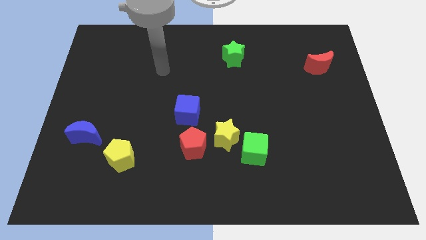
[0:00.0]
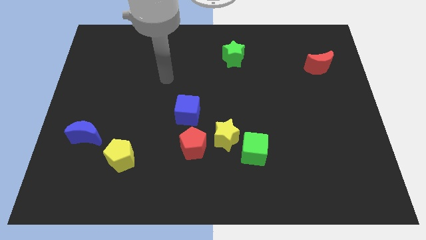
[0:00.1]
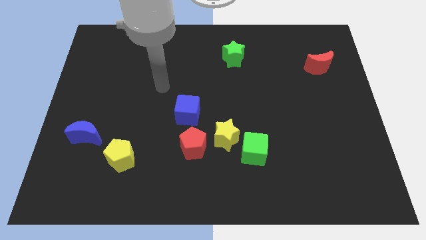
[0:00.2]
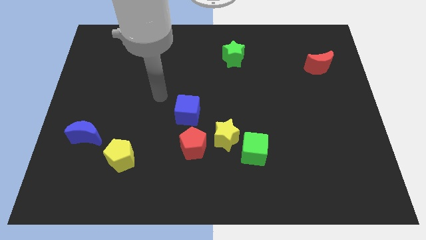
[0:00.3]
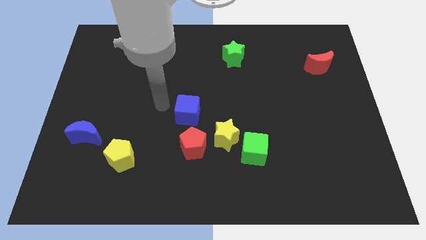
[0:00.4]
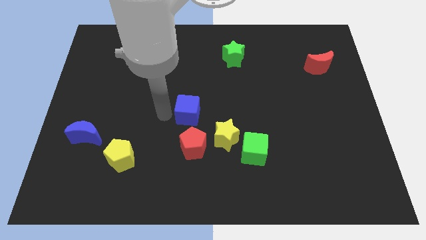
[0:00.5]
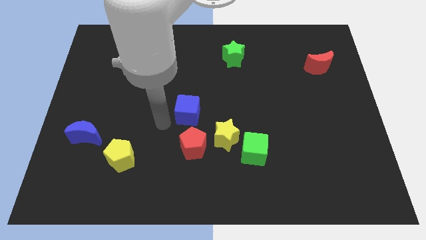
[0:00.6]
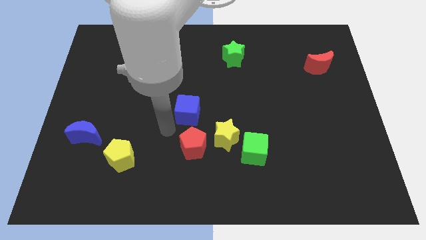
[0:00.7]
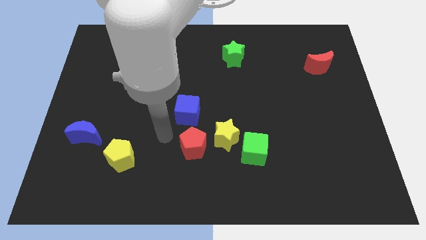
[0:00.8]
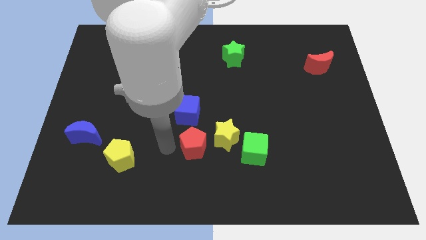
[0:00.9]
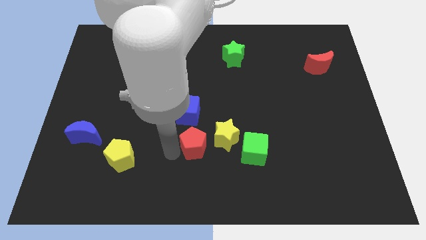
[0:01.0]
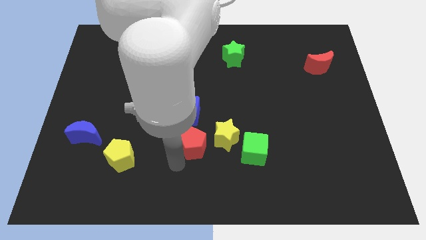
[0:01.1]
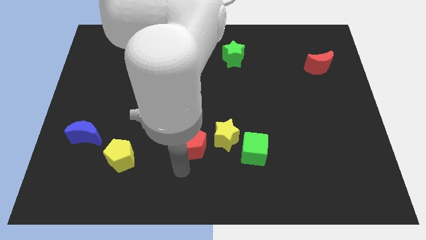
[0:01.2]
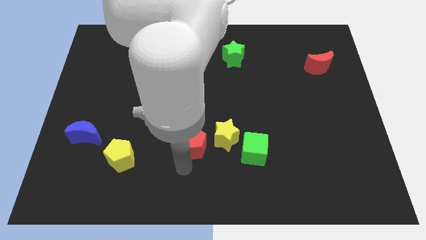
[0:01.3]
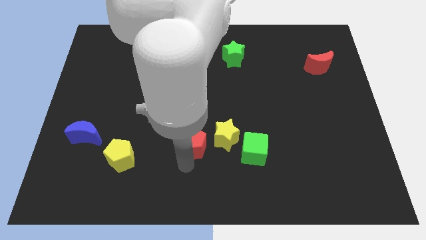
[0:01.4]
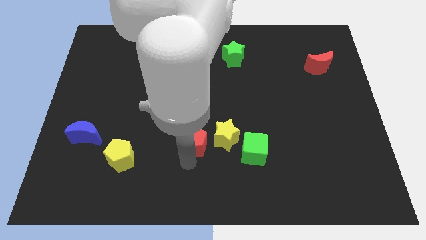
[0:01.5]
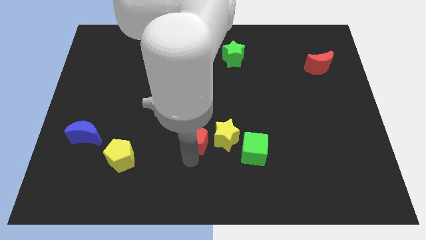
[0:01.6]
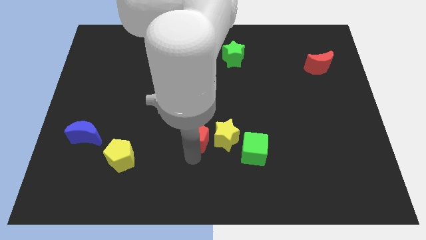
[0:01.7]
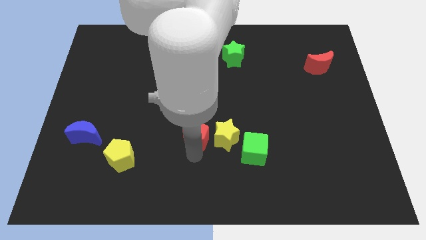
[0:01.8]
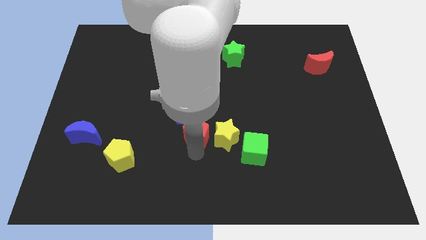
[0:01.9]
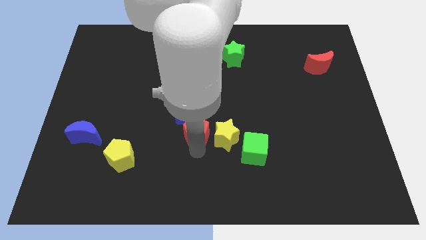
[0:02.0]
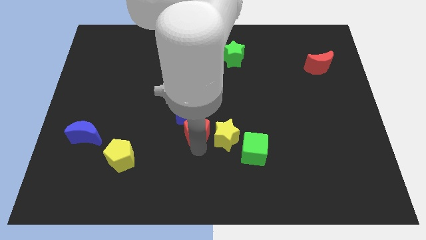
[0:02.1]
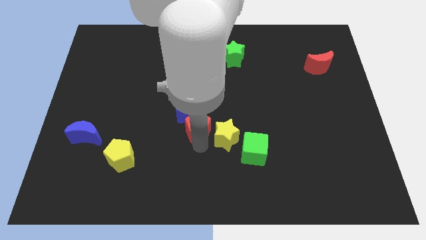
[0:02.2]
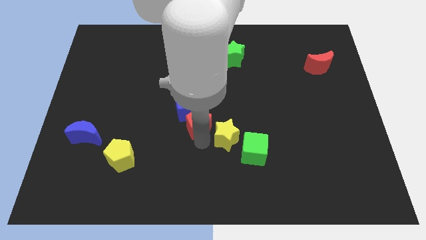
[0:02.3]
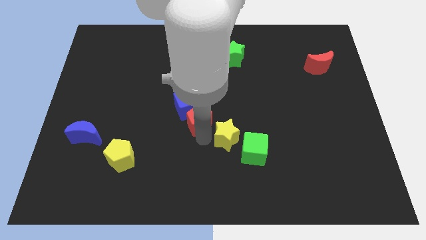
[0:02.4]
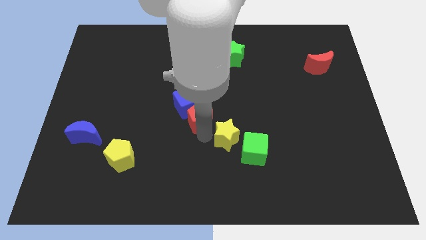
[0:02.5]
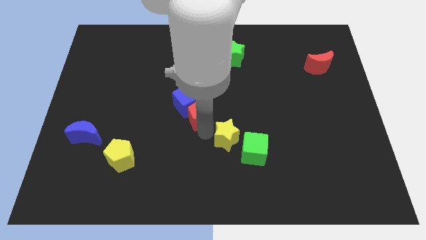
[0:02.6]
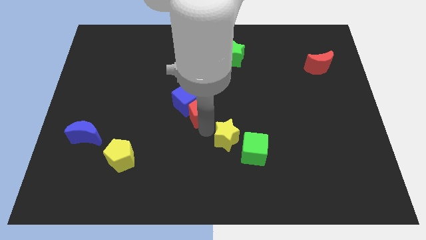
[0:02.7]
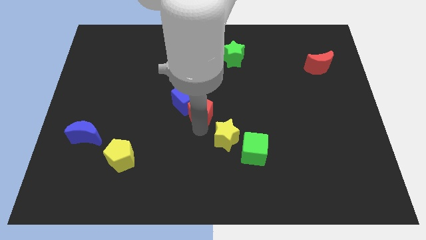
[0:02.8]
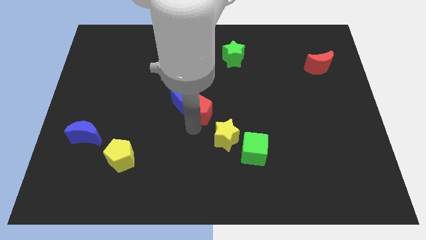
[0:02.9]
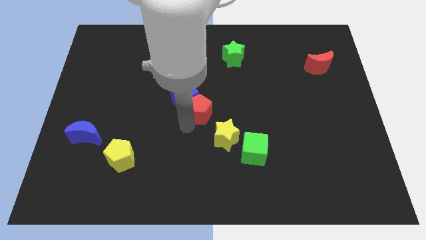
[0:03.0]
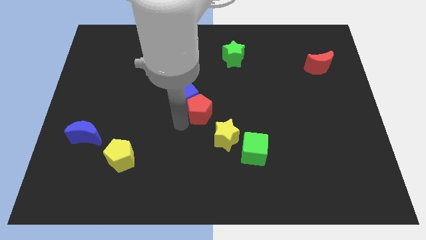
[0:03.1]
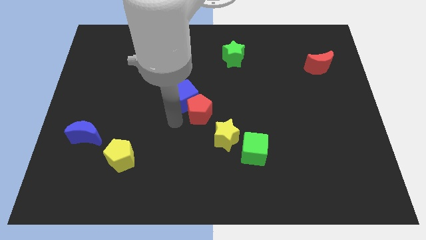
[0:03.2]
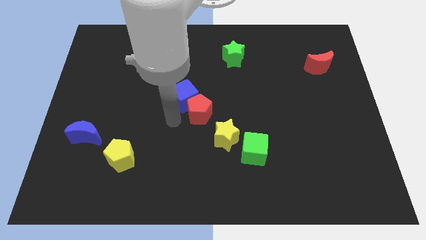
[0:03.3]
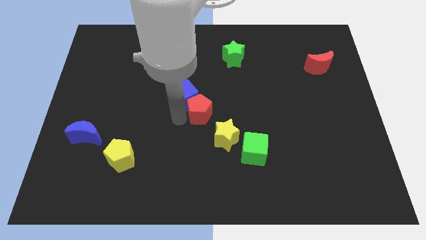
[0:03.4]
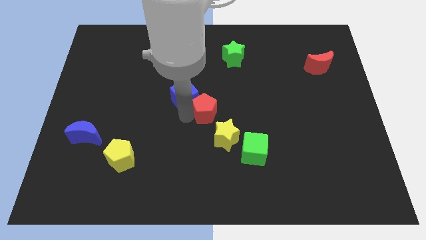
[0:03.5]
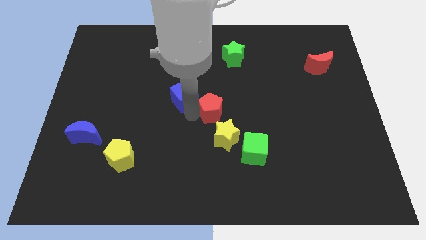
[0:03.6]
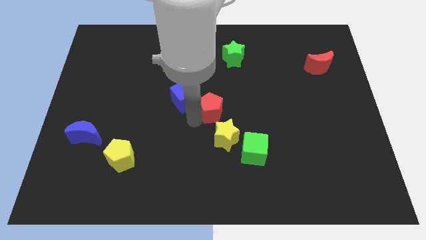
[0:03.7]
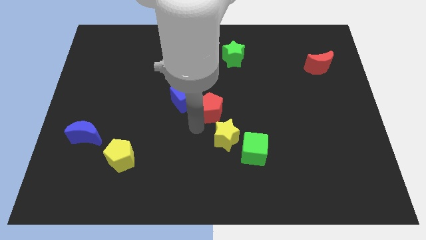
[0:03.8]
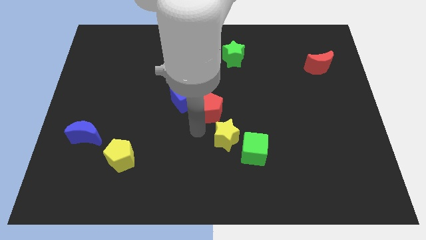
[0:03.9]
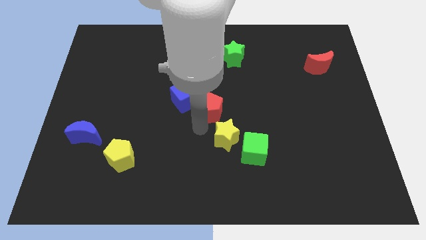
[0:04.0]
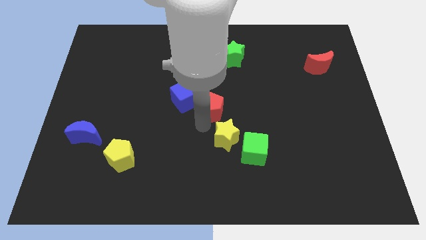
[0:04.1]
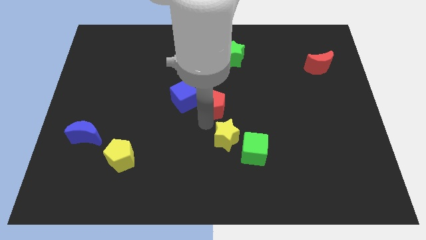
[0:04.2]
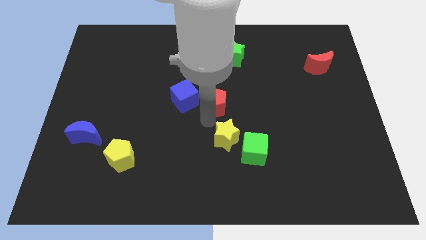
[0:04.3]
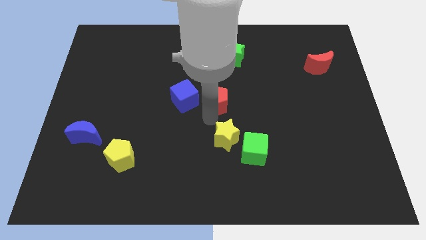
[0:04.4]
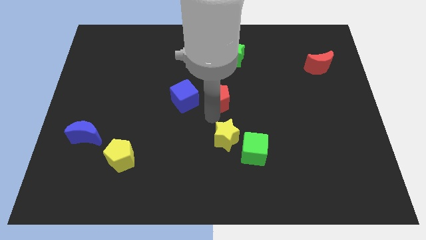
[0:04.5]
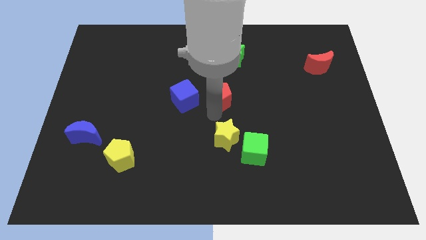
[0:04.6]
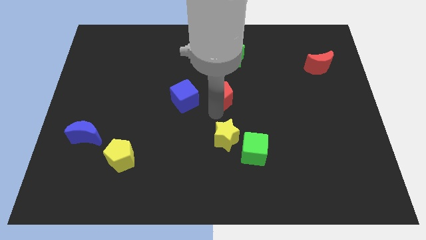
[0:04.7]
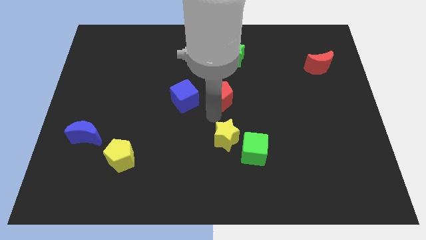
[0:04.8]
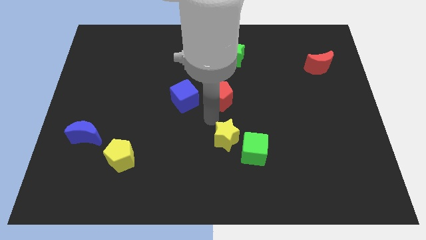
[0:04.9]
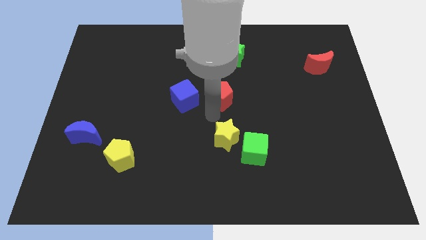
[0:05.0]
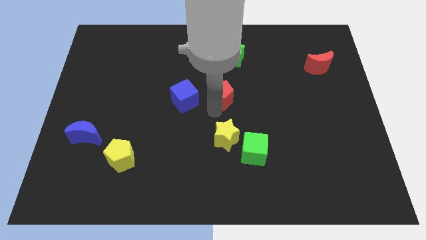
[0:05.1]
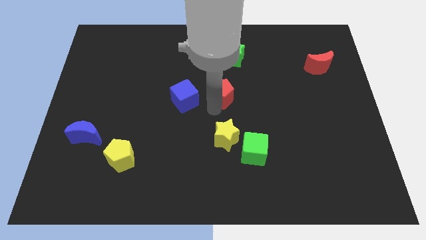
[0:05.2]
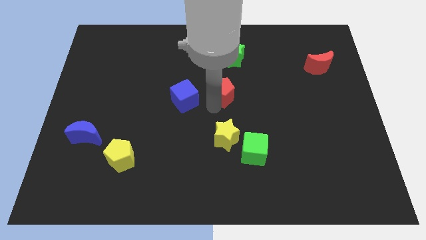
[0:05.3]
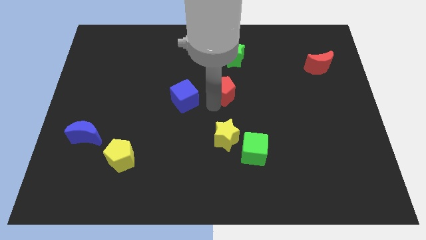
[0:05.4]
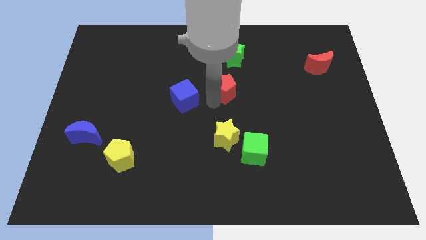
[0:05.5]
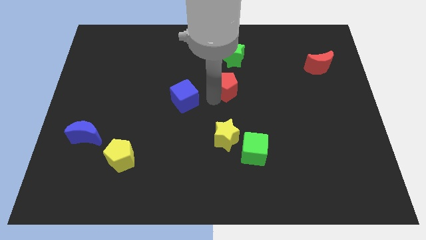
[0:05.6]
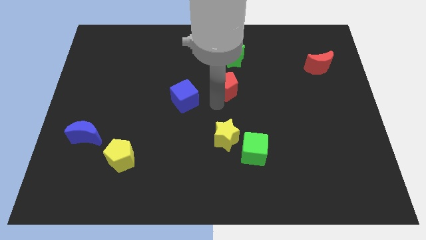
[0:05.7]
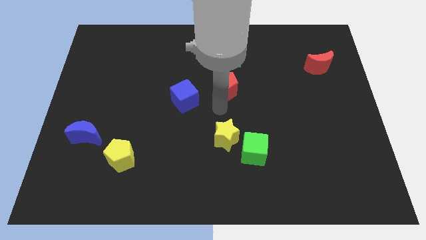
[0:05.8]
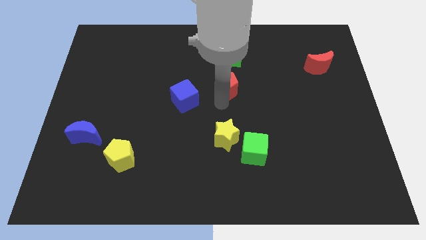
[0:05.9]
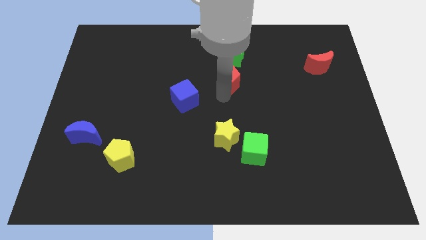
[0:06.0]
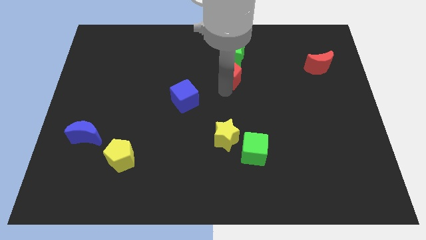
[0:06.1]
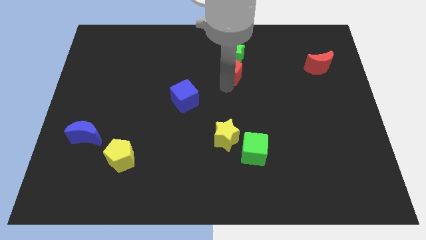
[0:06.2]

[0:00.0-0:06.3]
put the red pentagon next to the green star

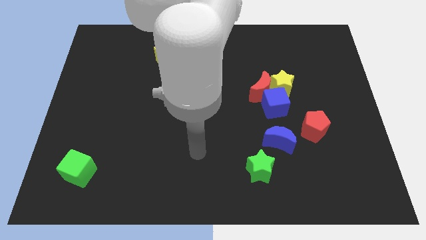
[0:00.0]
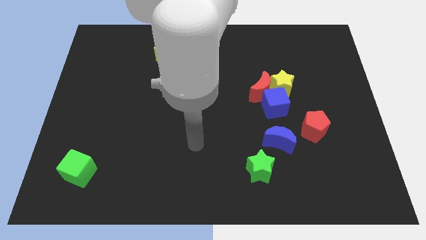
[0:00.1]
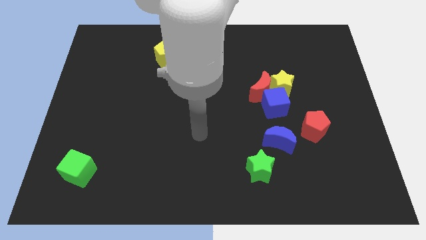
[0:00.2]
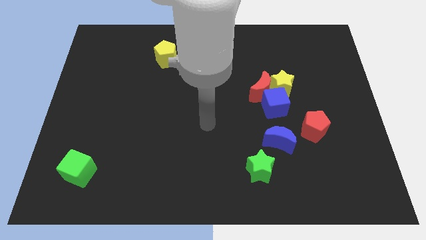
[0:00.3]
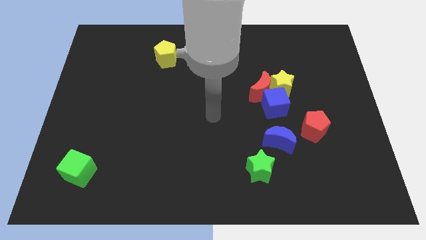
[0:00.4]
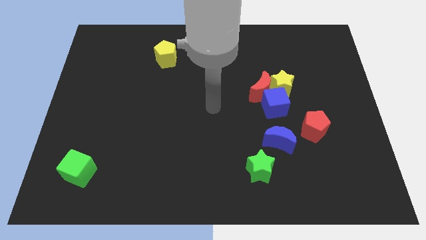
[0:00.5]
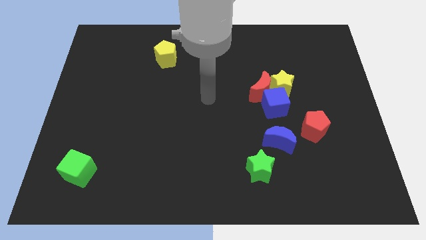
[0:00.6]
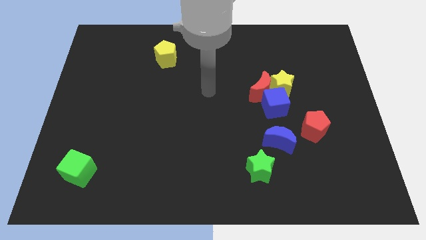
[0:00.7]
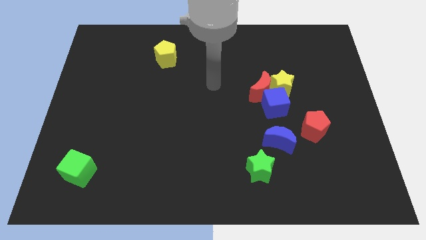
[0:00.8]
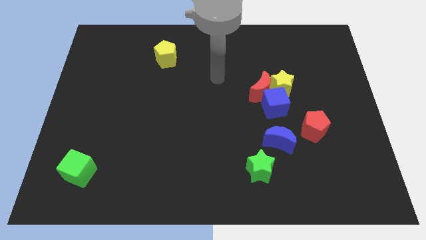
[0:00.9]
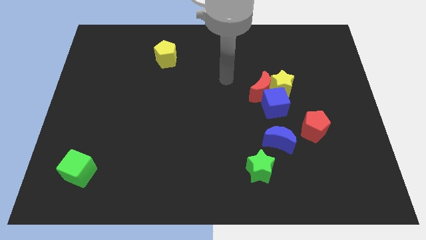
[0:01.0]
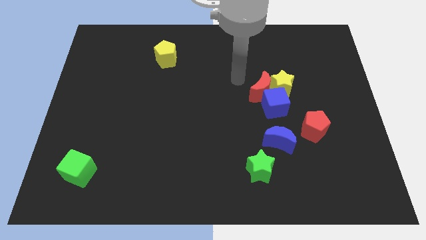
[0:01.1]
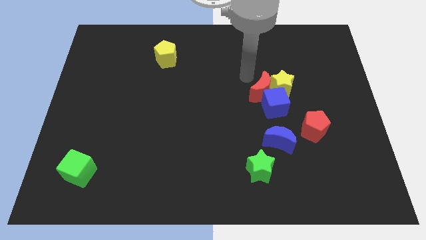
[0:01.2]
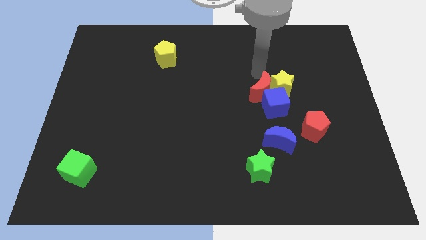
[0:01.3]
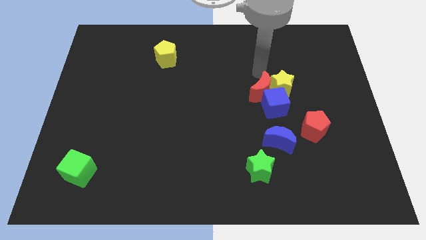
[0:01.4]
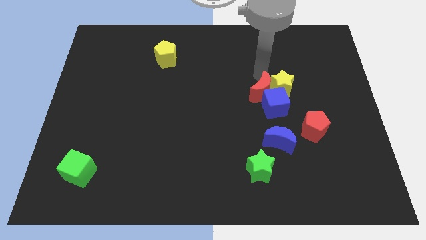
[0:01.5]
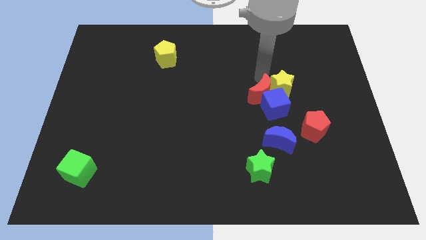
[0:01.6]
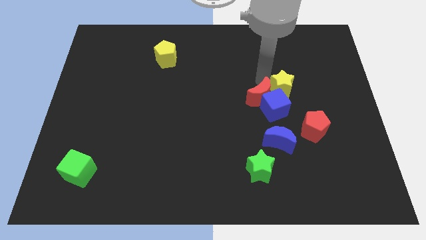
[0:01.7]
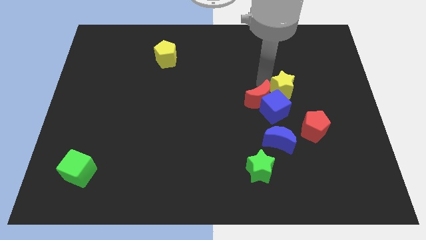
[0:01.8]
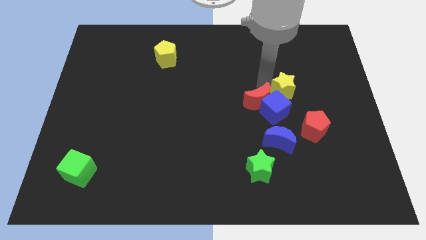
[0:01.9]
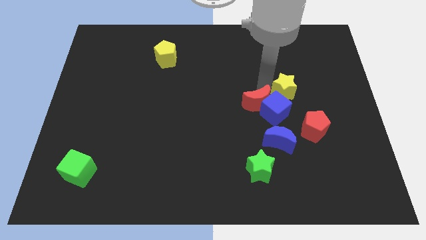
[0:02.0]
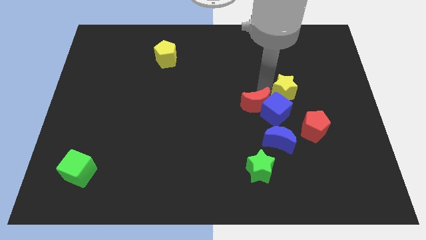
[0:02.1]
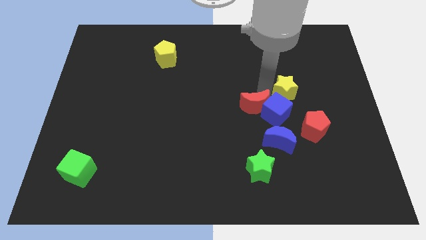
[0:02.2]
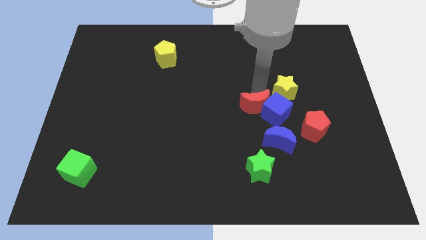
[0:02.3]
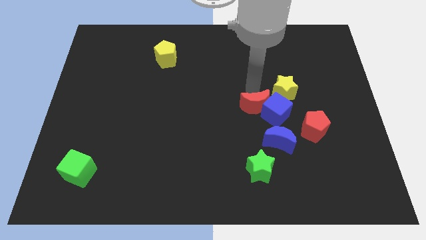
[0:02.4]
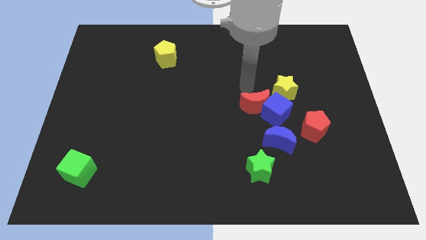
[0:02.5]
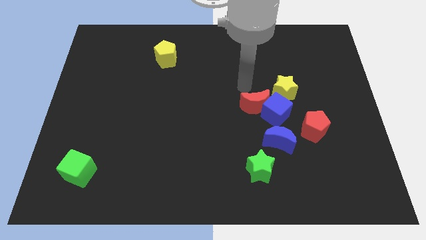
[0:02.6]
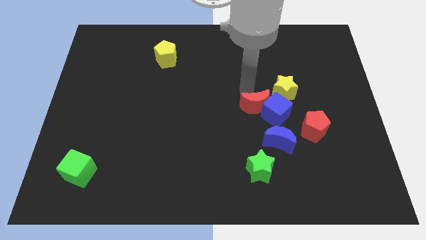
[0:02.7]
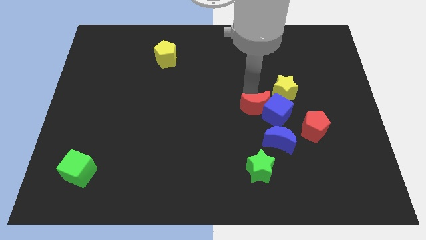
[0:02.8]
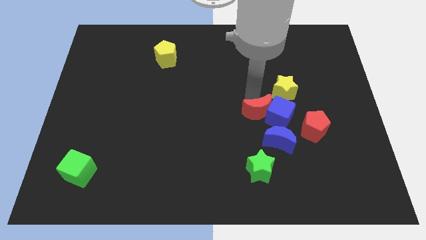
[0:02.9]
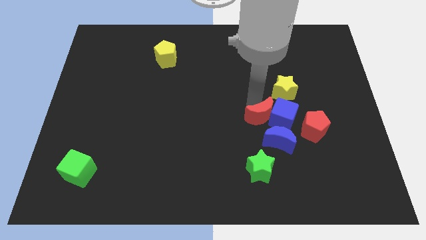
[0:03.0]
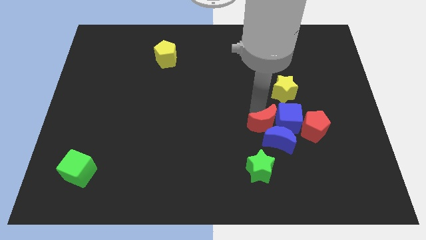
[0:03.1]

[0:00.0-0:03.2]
slide the red moon next to the blue moon
